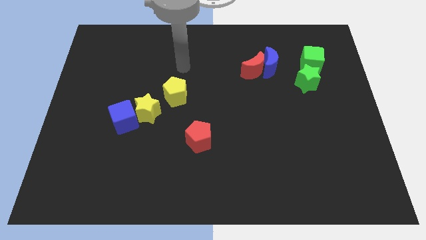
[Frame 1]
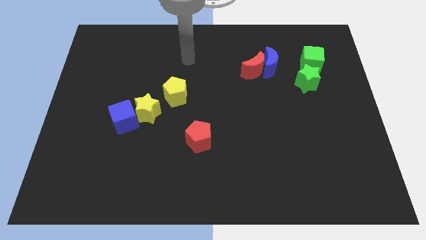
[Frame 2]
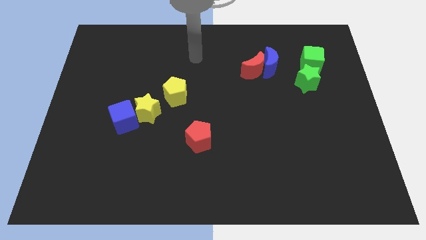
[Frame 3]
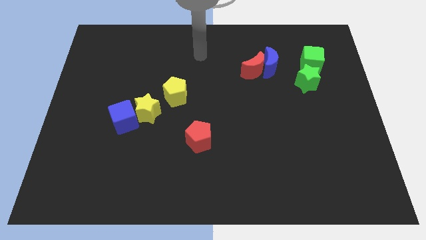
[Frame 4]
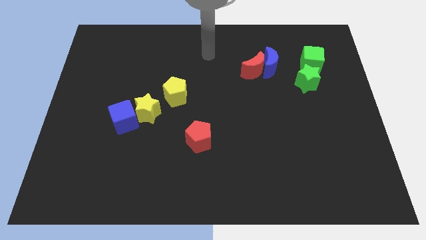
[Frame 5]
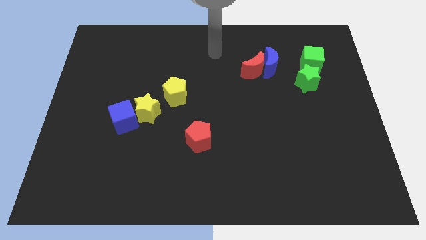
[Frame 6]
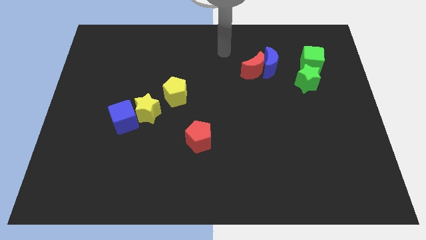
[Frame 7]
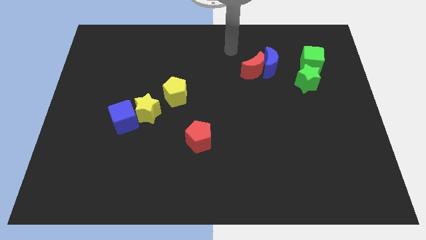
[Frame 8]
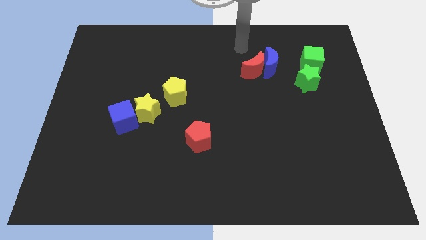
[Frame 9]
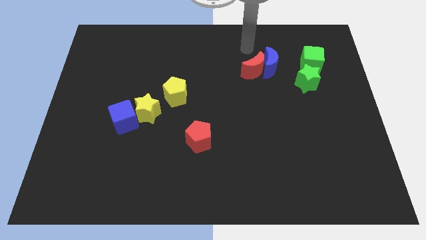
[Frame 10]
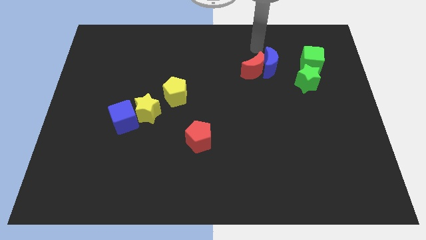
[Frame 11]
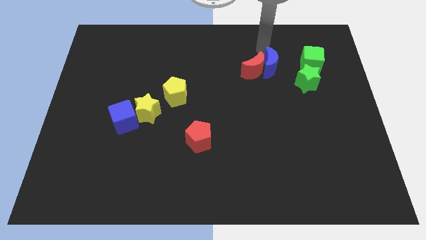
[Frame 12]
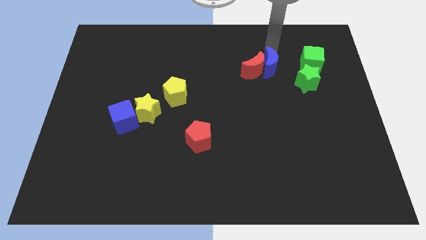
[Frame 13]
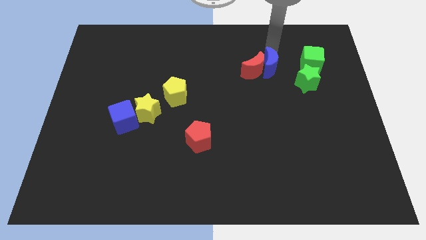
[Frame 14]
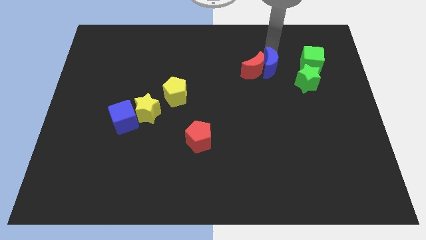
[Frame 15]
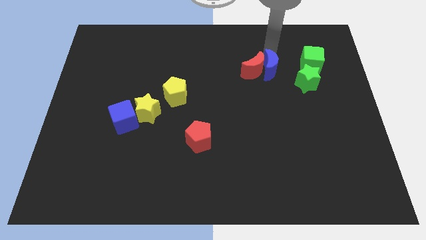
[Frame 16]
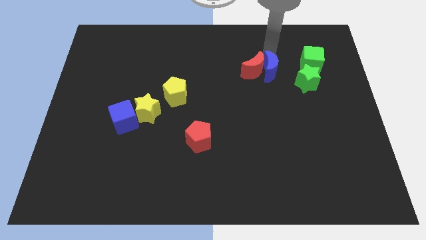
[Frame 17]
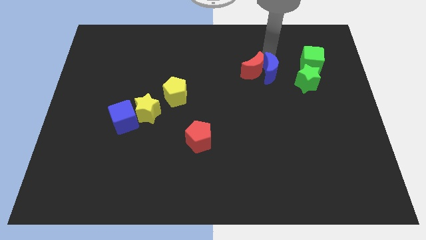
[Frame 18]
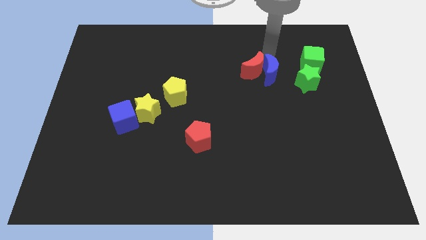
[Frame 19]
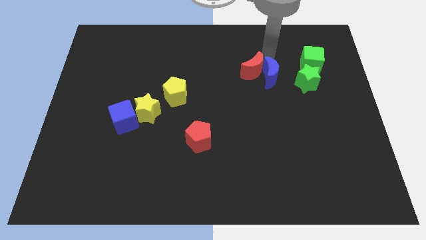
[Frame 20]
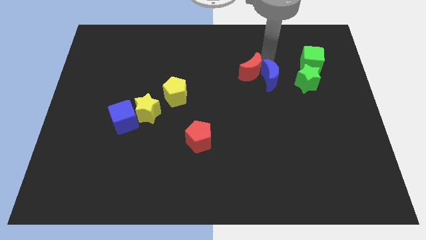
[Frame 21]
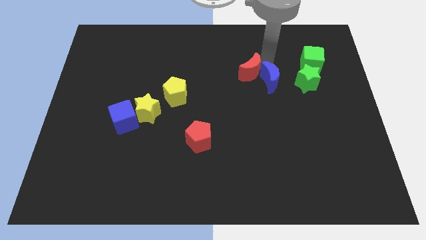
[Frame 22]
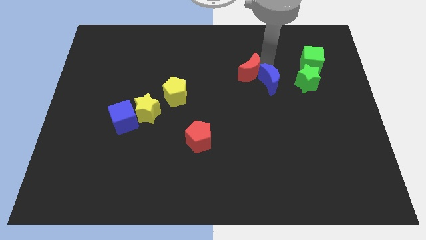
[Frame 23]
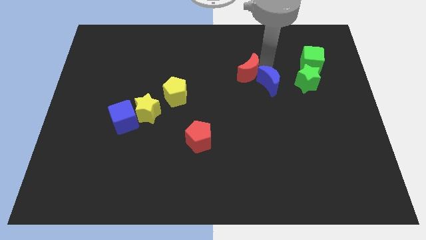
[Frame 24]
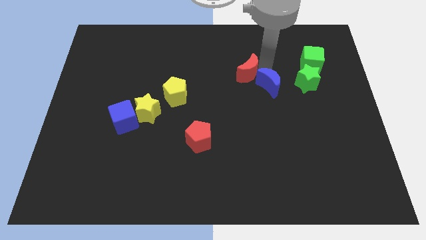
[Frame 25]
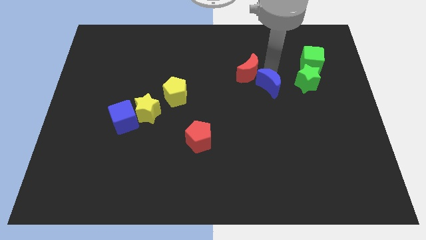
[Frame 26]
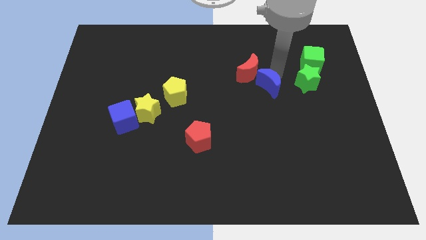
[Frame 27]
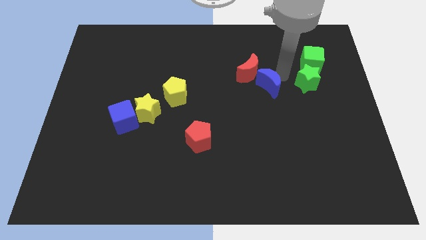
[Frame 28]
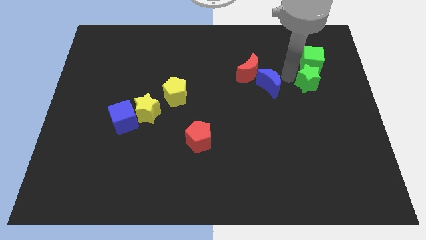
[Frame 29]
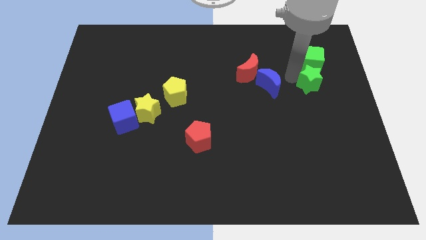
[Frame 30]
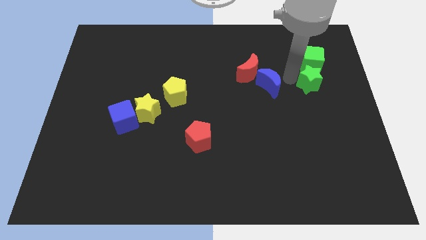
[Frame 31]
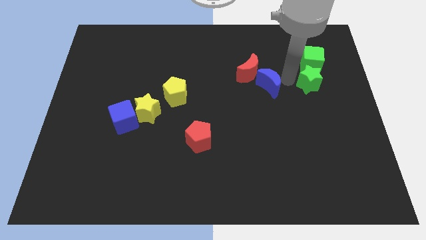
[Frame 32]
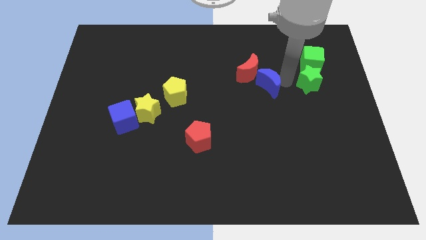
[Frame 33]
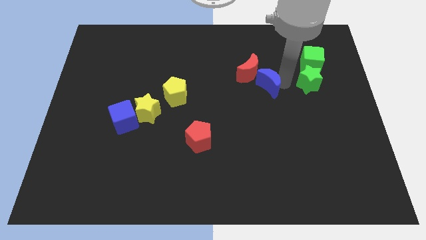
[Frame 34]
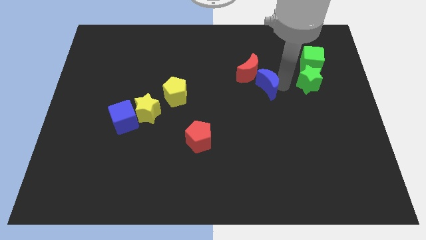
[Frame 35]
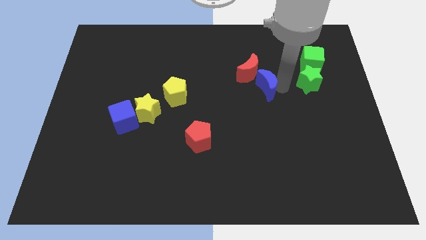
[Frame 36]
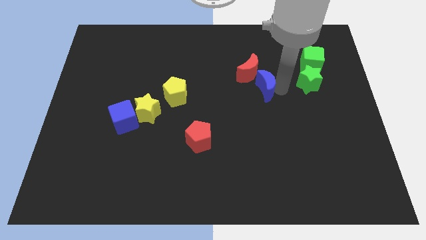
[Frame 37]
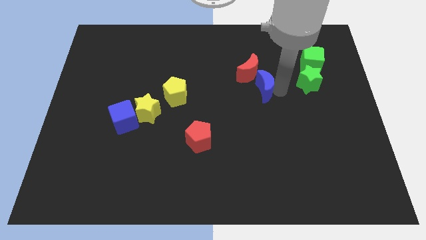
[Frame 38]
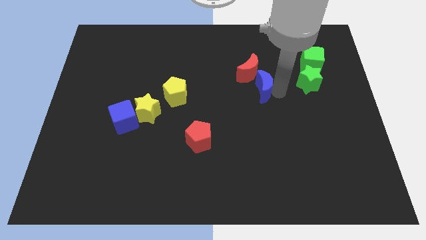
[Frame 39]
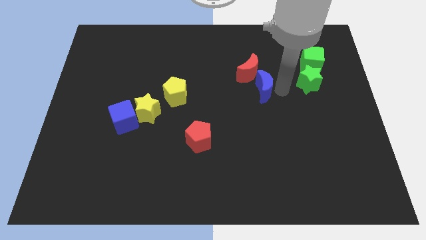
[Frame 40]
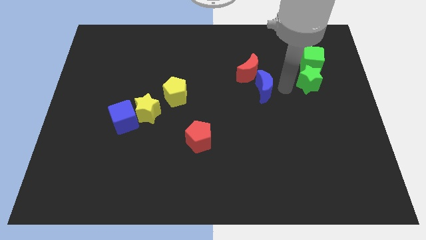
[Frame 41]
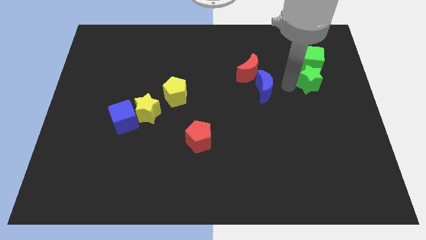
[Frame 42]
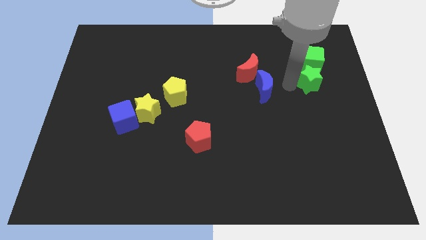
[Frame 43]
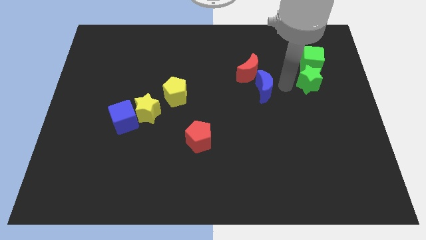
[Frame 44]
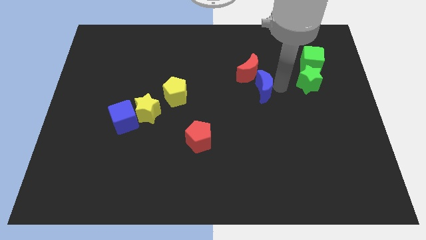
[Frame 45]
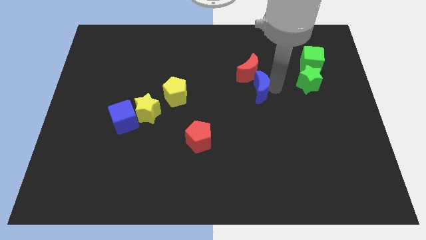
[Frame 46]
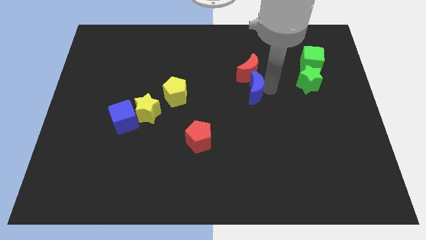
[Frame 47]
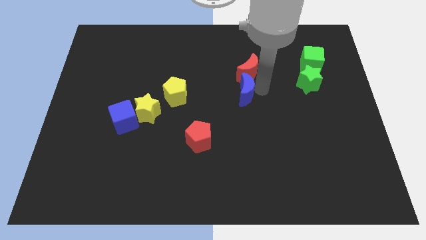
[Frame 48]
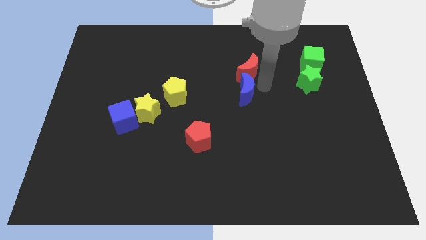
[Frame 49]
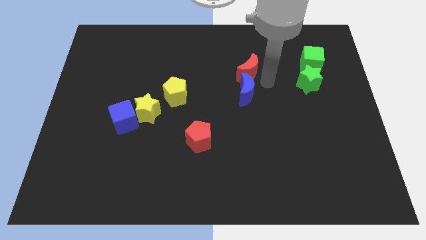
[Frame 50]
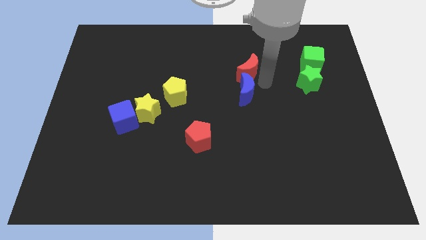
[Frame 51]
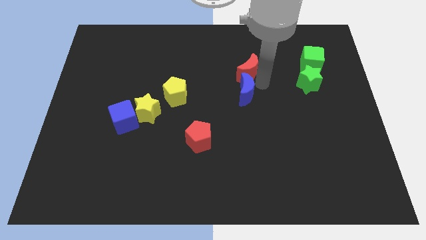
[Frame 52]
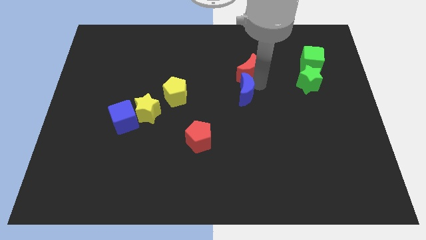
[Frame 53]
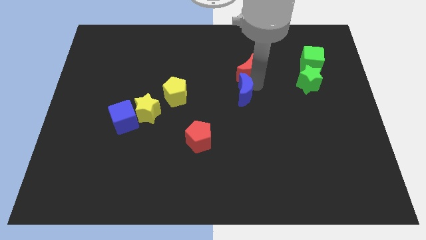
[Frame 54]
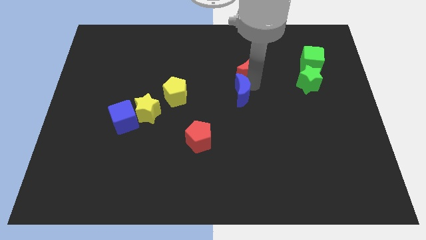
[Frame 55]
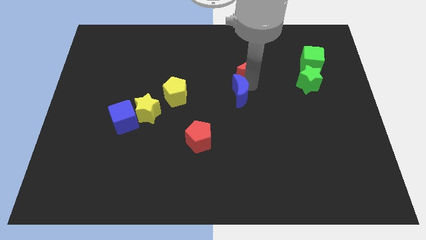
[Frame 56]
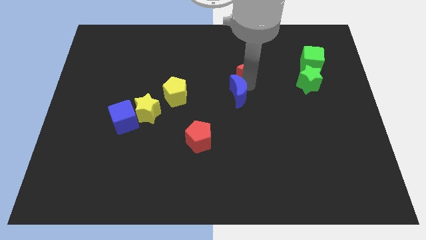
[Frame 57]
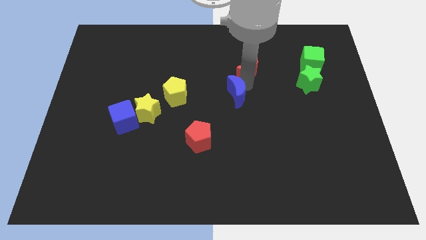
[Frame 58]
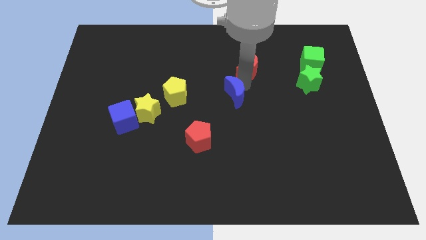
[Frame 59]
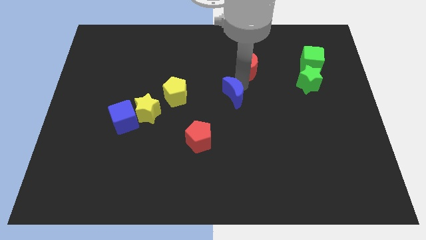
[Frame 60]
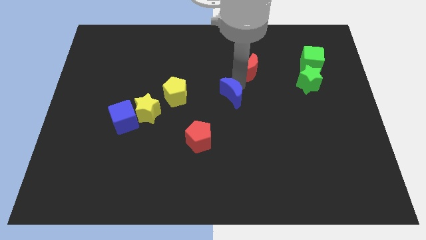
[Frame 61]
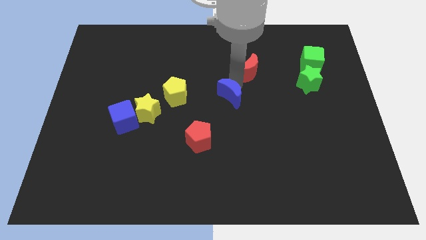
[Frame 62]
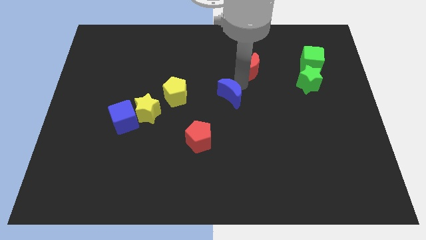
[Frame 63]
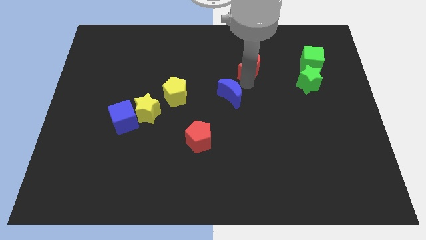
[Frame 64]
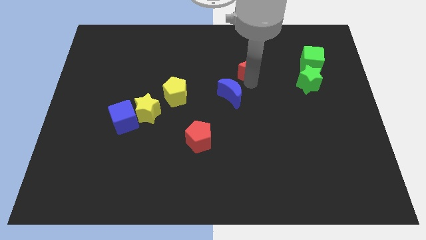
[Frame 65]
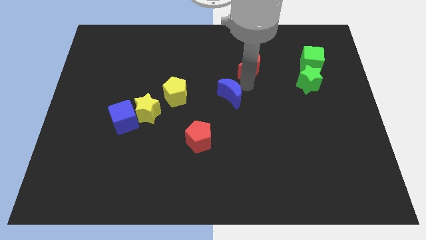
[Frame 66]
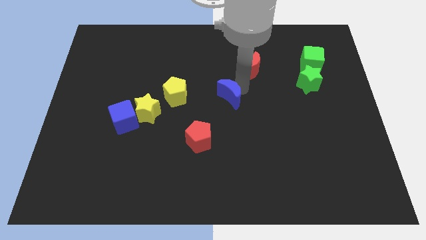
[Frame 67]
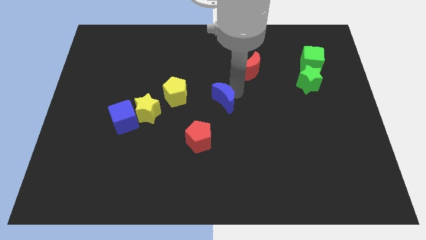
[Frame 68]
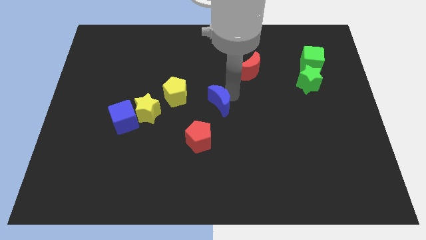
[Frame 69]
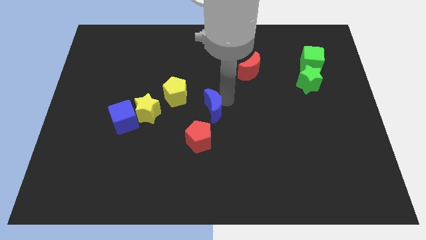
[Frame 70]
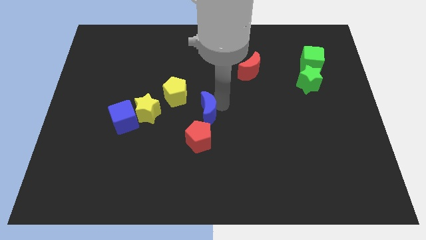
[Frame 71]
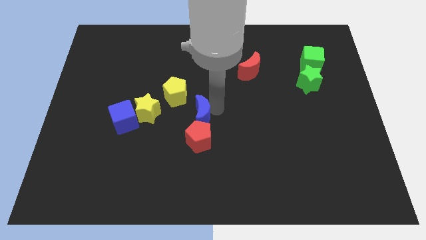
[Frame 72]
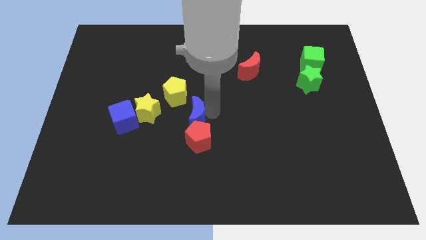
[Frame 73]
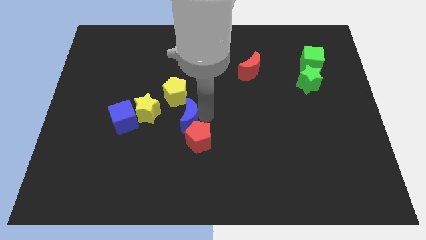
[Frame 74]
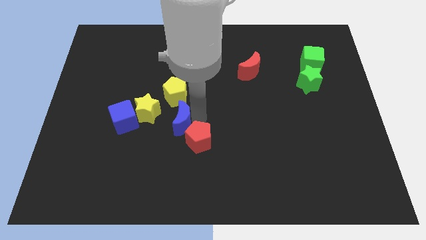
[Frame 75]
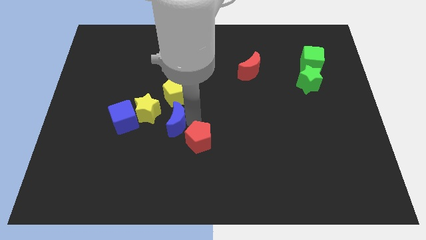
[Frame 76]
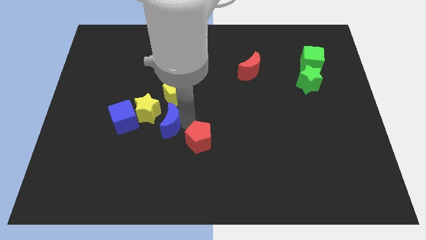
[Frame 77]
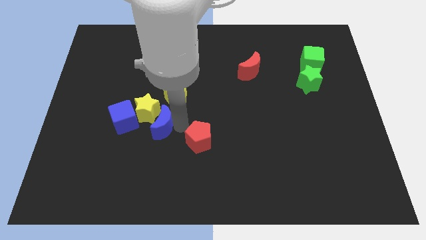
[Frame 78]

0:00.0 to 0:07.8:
put the blue moon to the yellow star

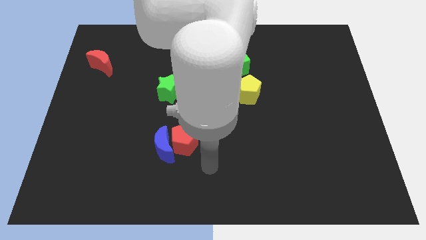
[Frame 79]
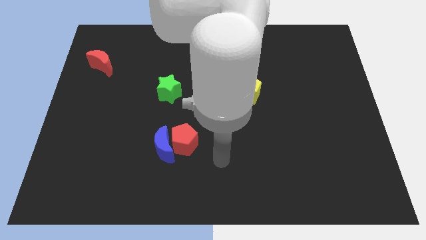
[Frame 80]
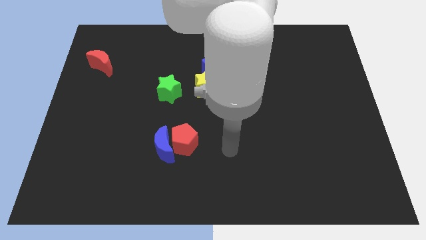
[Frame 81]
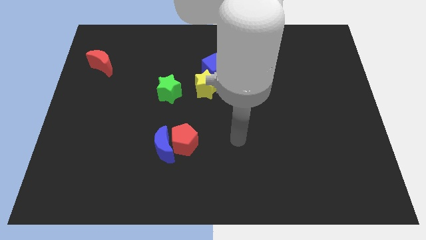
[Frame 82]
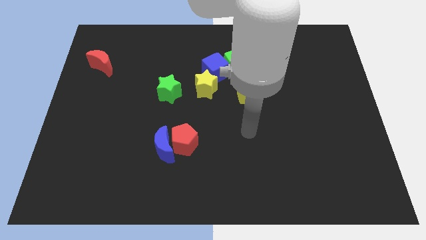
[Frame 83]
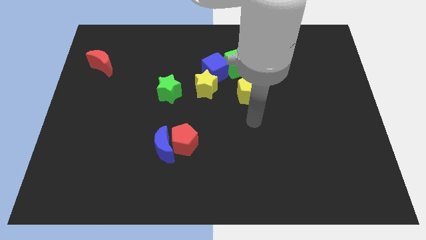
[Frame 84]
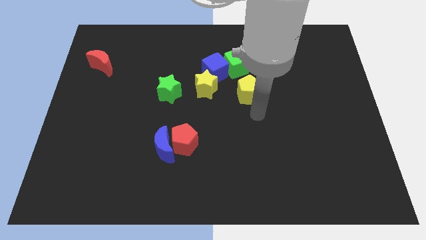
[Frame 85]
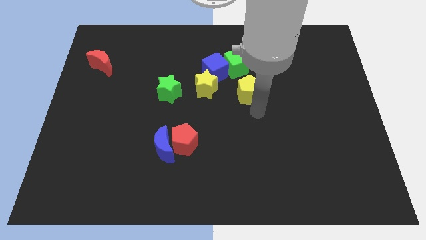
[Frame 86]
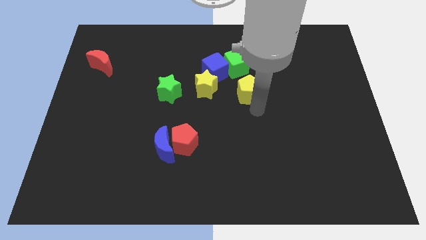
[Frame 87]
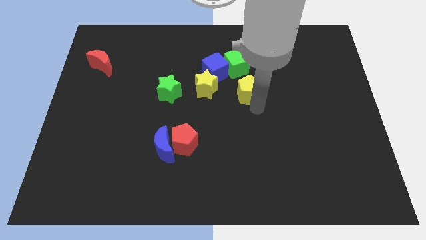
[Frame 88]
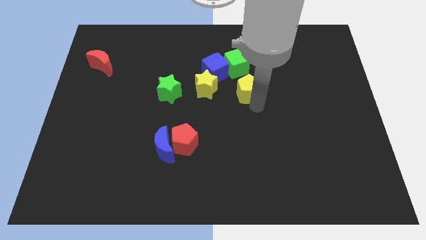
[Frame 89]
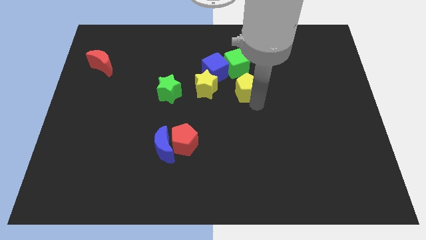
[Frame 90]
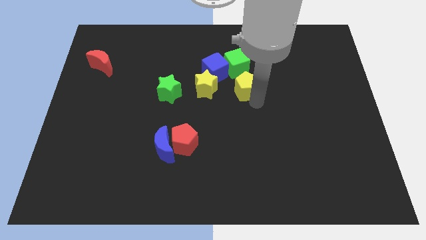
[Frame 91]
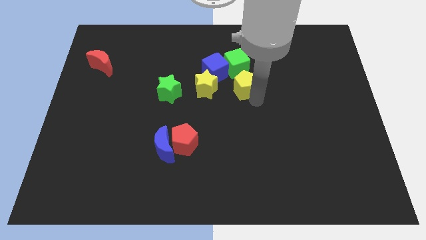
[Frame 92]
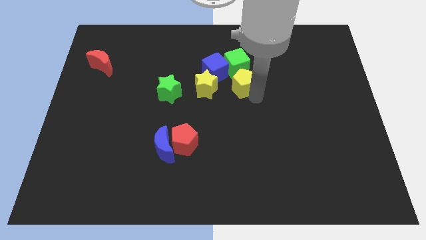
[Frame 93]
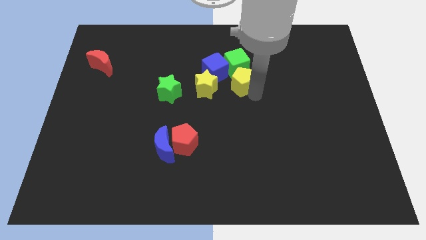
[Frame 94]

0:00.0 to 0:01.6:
move the yellow pentagon to the green cube
